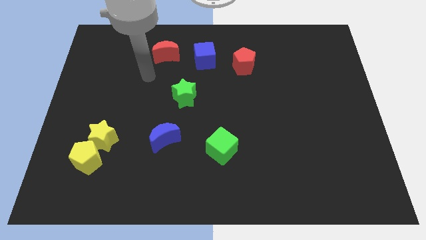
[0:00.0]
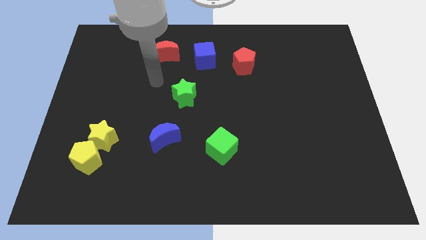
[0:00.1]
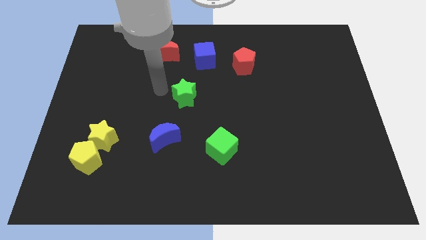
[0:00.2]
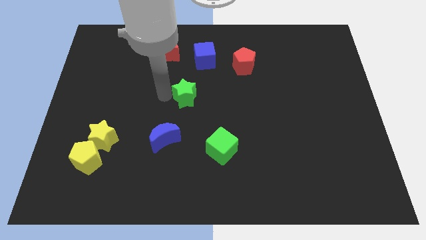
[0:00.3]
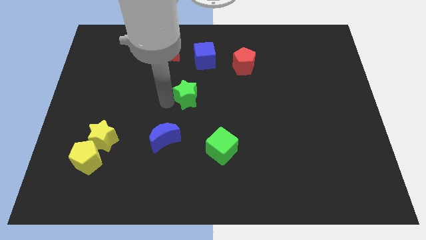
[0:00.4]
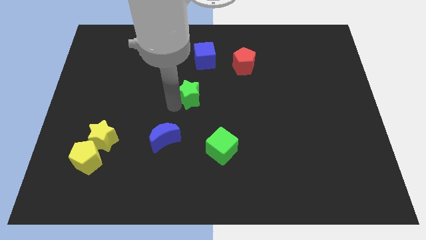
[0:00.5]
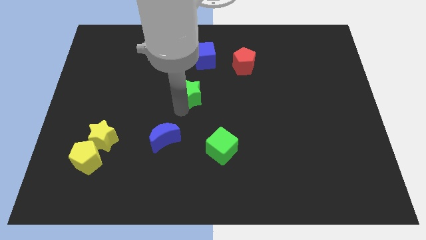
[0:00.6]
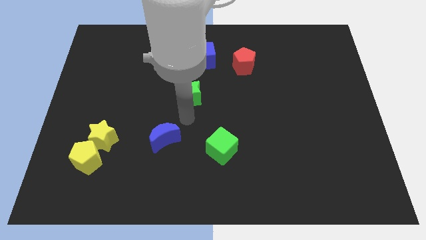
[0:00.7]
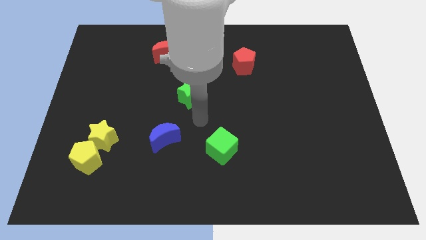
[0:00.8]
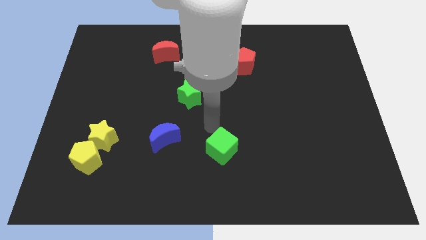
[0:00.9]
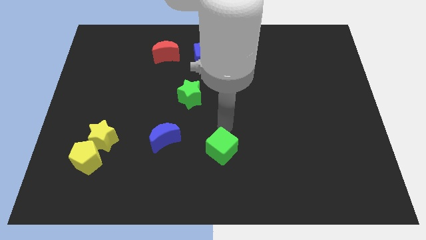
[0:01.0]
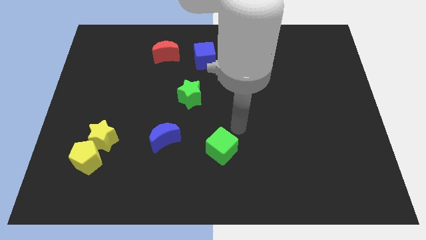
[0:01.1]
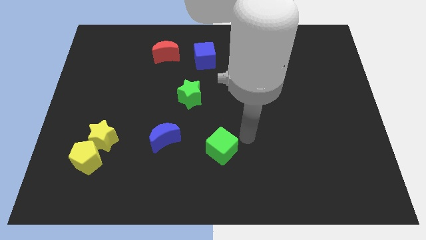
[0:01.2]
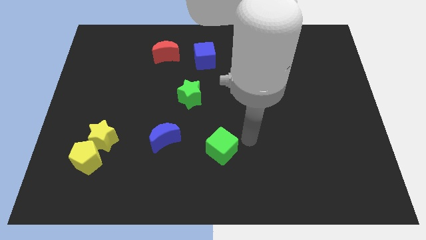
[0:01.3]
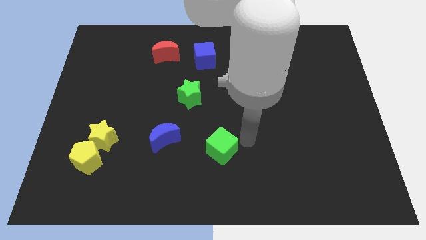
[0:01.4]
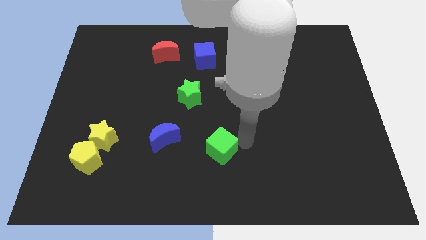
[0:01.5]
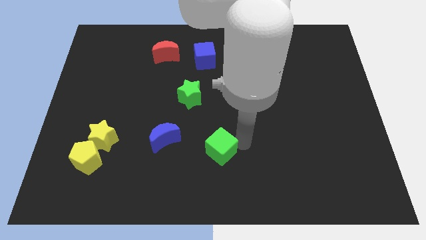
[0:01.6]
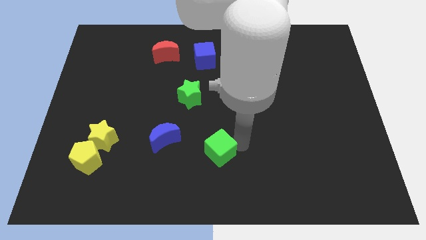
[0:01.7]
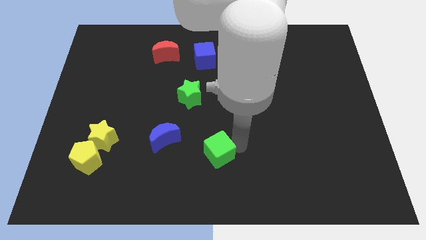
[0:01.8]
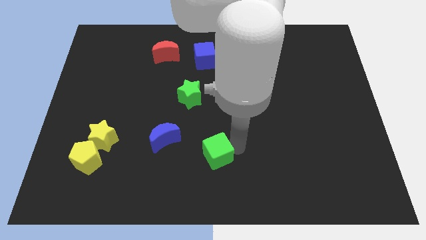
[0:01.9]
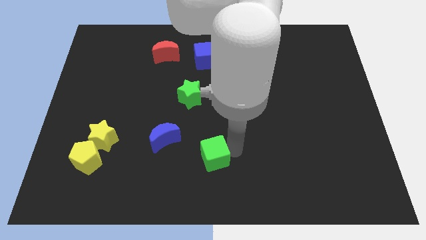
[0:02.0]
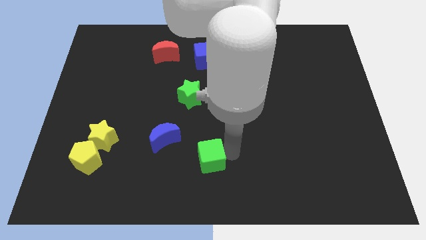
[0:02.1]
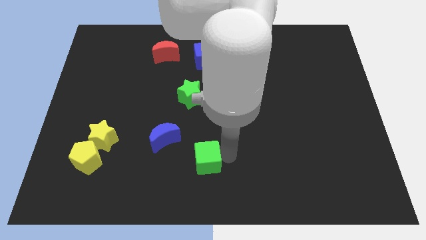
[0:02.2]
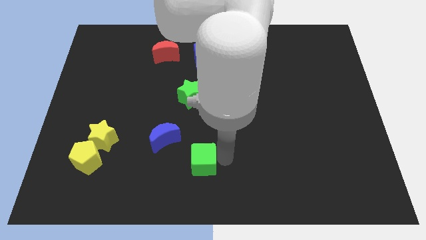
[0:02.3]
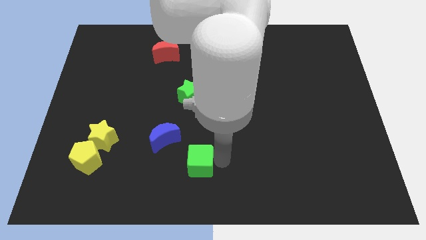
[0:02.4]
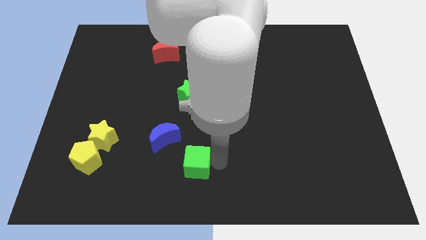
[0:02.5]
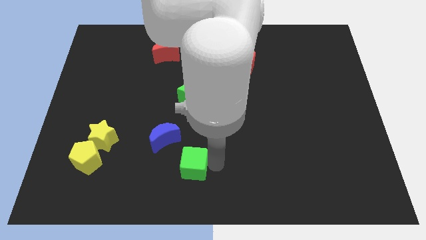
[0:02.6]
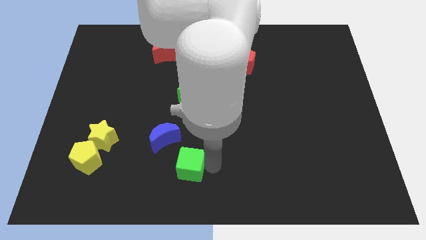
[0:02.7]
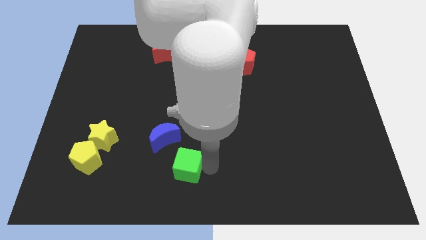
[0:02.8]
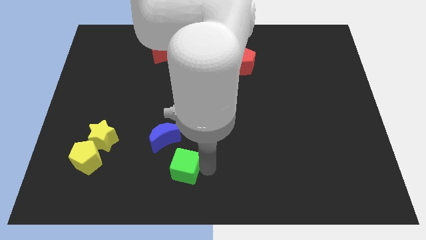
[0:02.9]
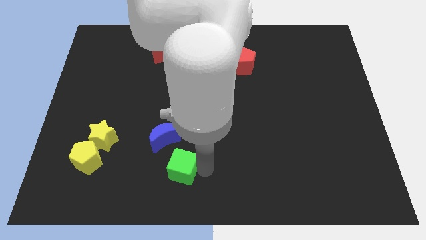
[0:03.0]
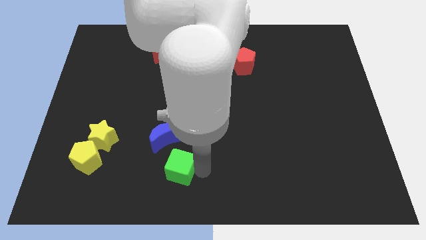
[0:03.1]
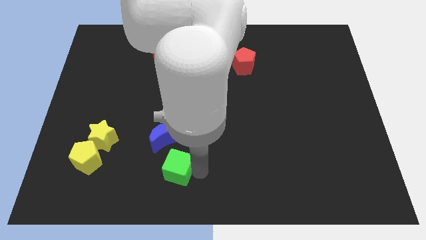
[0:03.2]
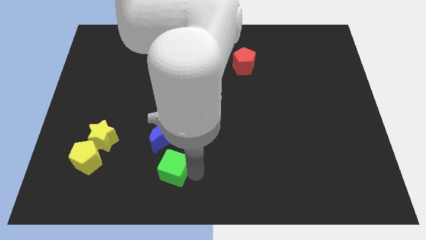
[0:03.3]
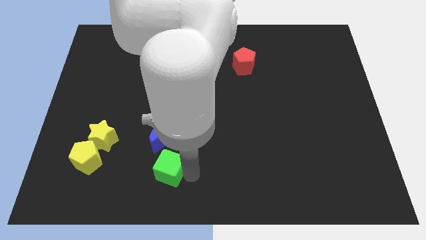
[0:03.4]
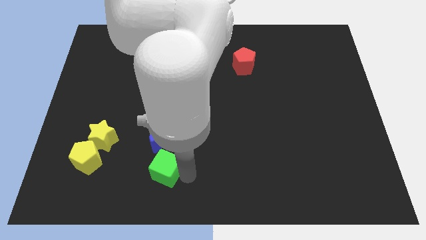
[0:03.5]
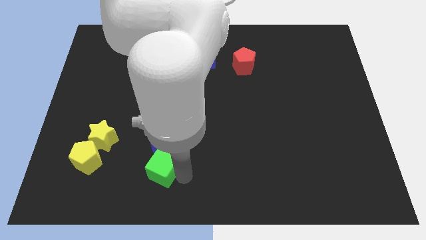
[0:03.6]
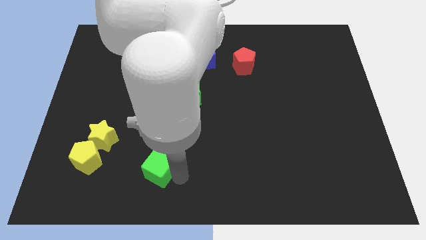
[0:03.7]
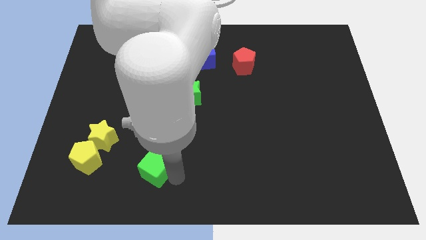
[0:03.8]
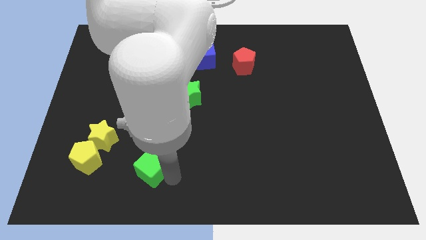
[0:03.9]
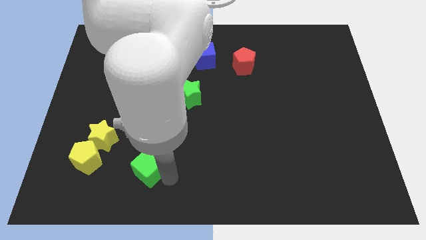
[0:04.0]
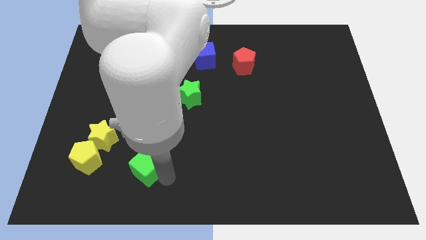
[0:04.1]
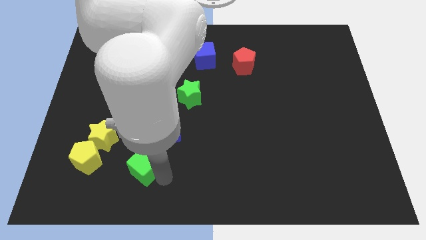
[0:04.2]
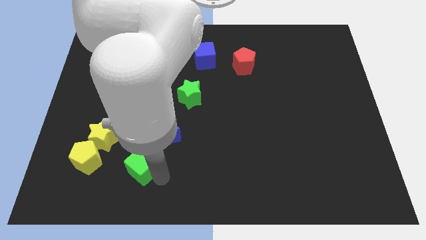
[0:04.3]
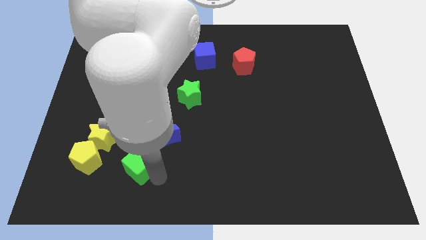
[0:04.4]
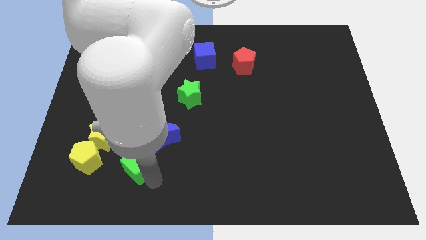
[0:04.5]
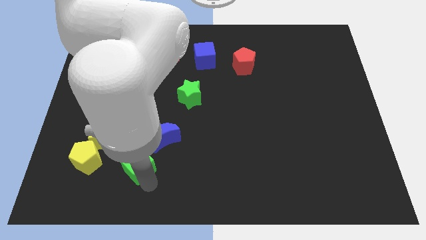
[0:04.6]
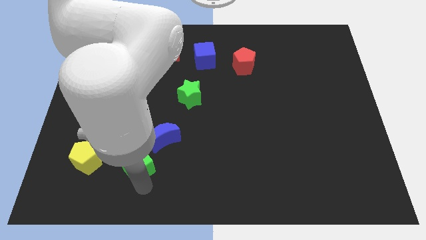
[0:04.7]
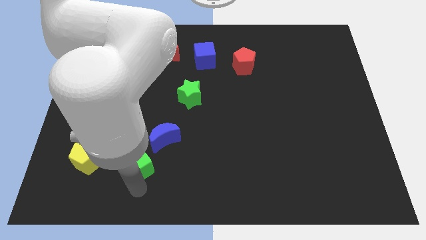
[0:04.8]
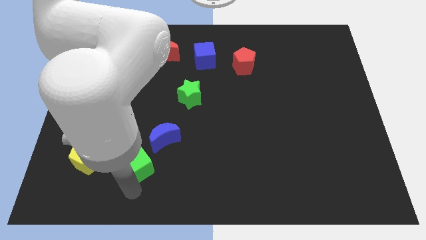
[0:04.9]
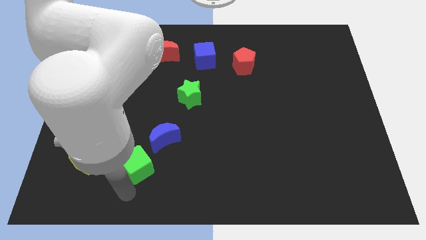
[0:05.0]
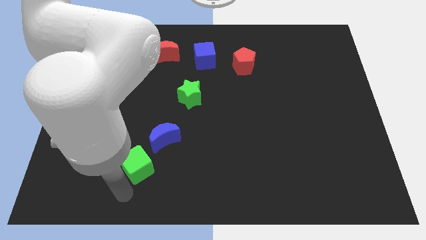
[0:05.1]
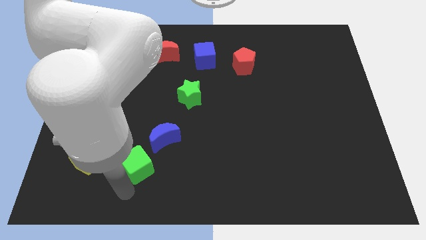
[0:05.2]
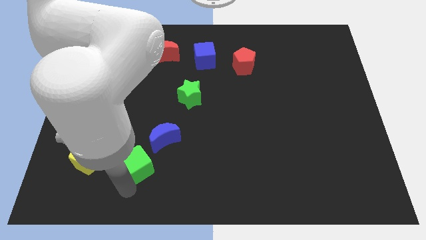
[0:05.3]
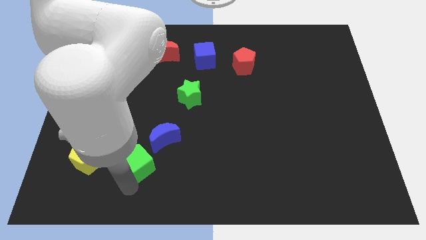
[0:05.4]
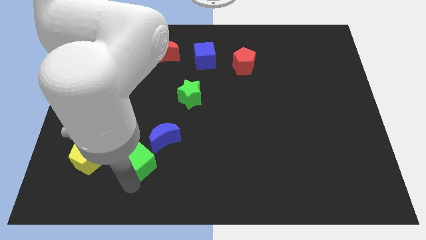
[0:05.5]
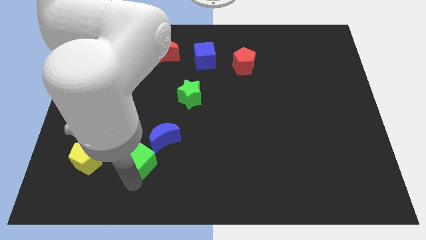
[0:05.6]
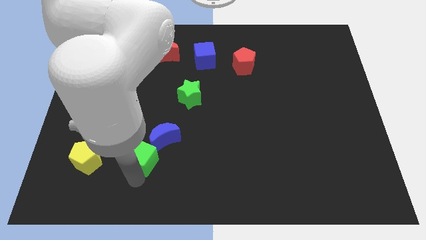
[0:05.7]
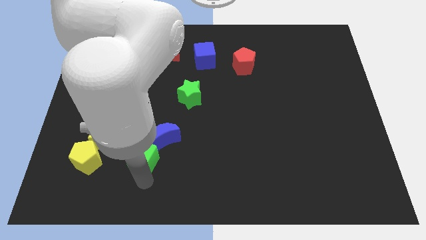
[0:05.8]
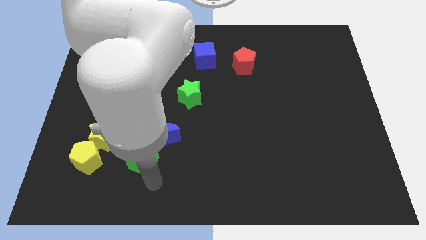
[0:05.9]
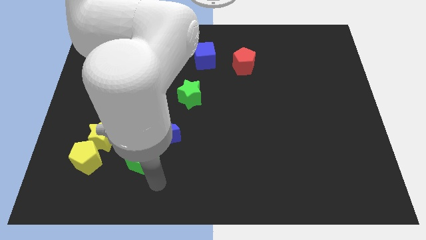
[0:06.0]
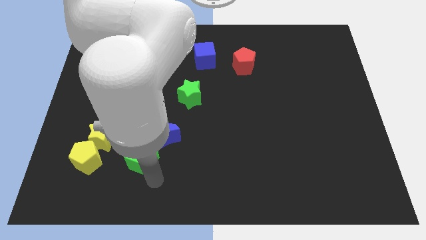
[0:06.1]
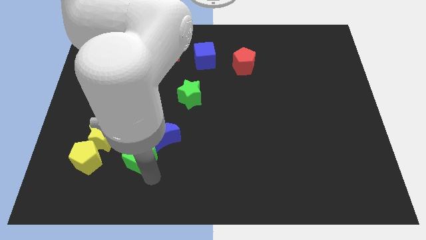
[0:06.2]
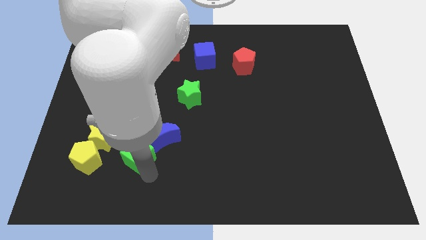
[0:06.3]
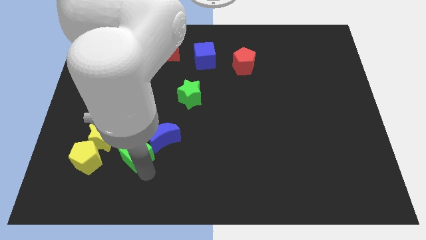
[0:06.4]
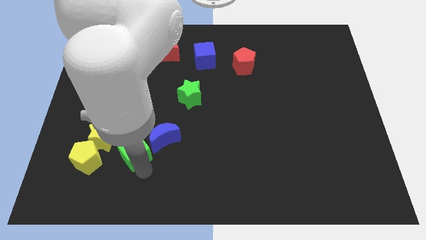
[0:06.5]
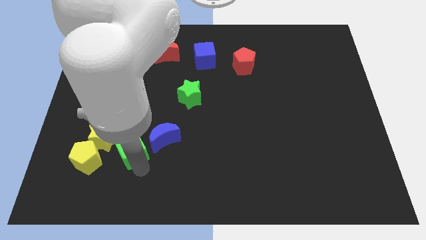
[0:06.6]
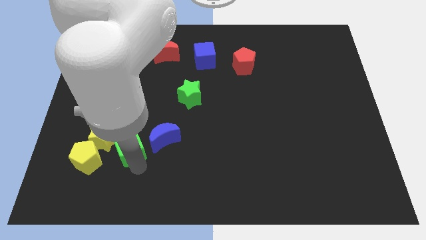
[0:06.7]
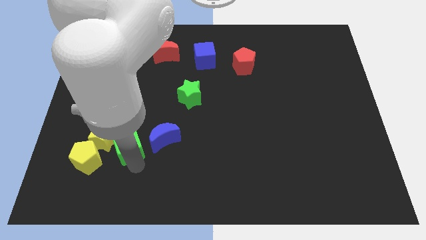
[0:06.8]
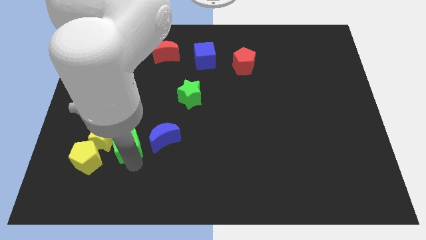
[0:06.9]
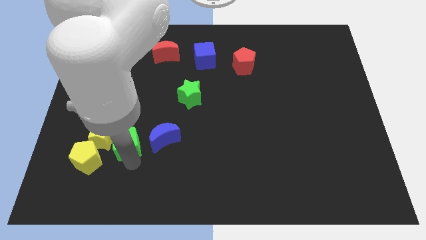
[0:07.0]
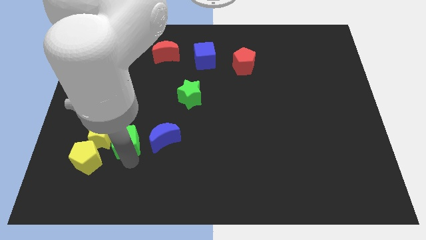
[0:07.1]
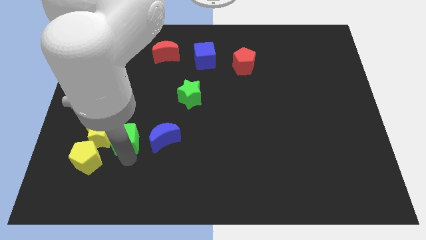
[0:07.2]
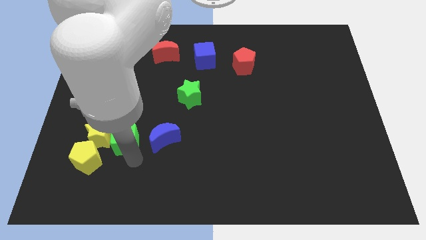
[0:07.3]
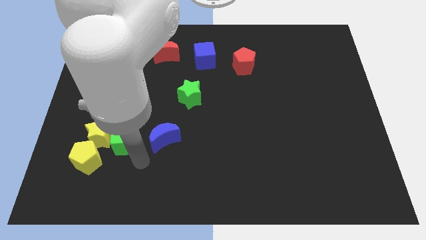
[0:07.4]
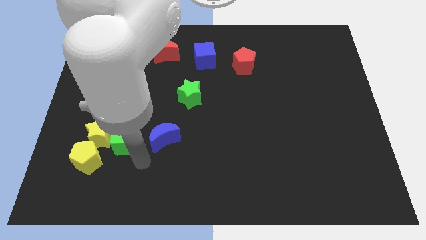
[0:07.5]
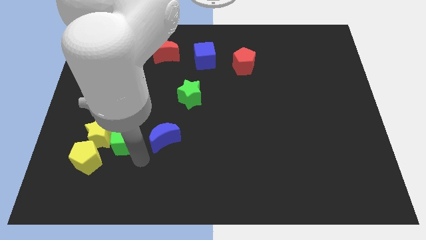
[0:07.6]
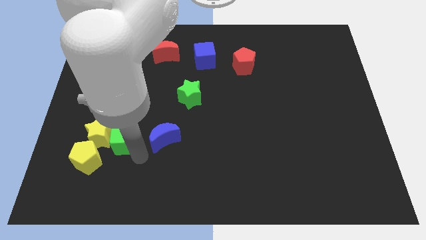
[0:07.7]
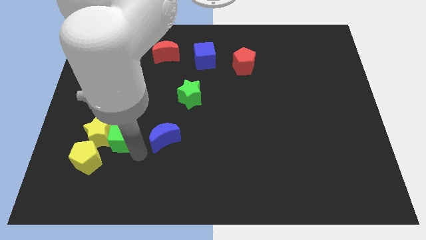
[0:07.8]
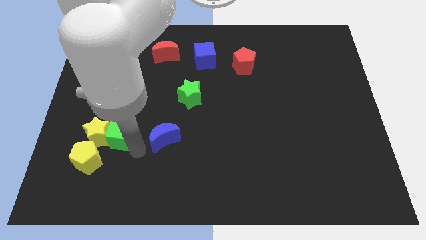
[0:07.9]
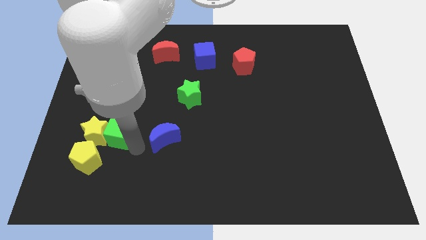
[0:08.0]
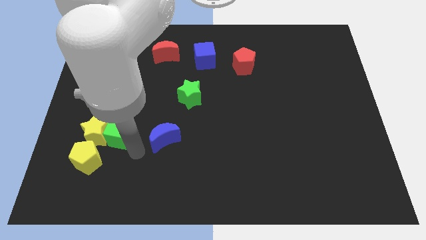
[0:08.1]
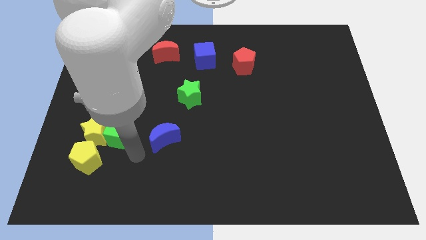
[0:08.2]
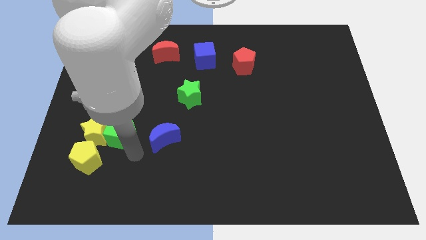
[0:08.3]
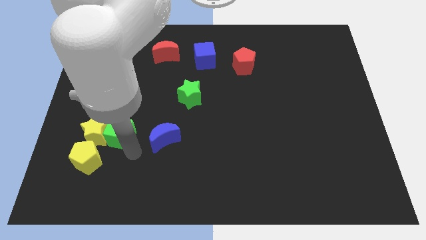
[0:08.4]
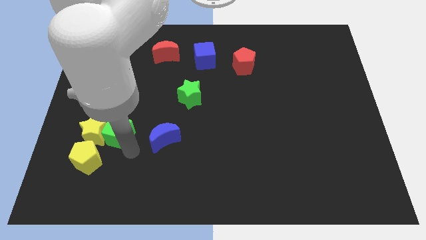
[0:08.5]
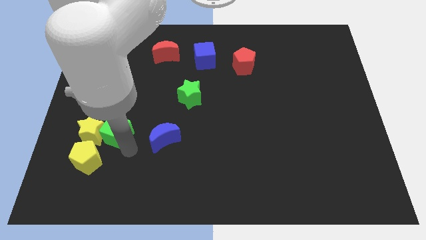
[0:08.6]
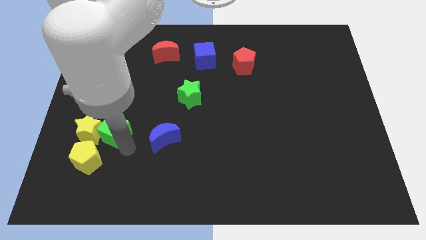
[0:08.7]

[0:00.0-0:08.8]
put the green cube to the top of the yellow pentagon
